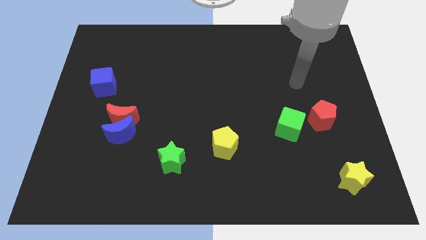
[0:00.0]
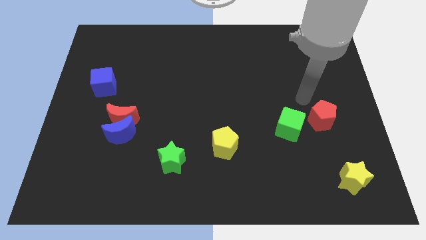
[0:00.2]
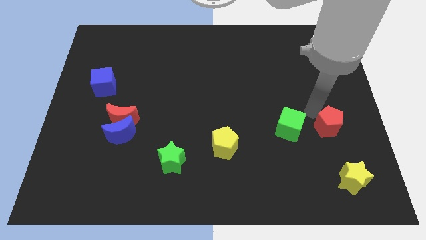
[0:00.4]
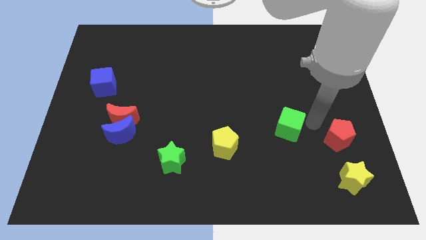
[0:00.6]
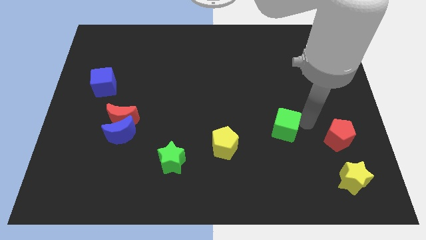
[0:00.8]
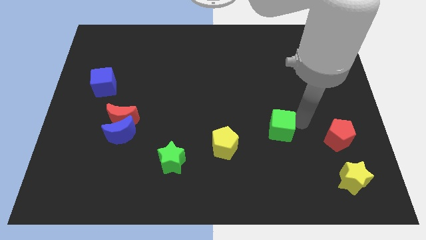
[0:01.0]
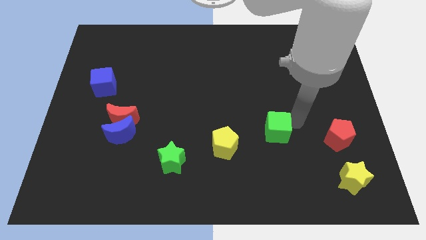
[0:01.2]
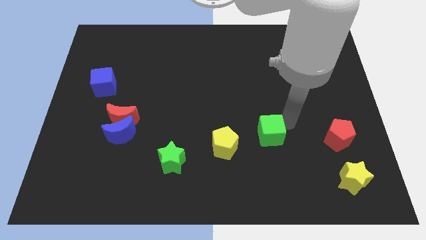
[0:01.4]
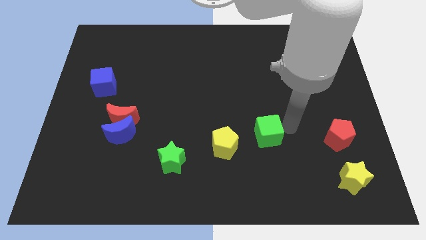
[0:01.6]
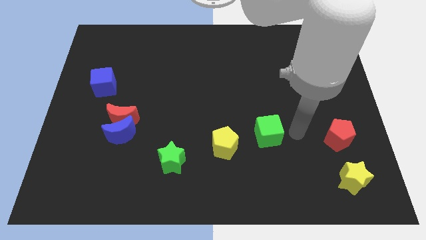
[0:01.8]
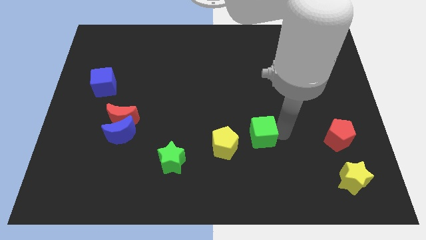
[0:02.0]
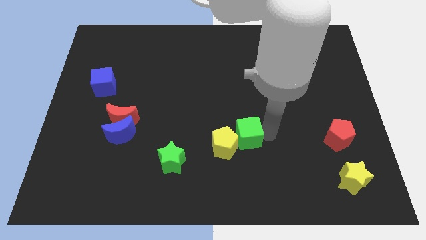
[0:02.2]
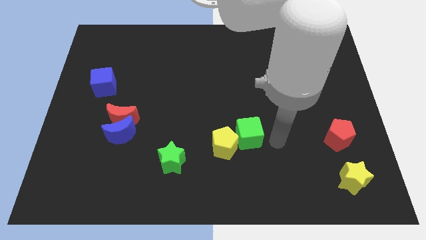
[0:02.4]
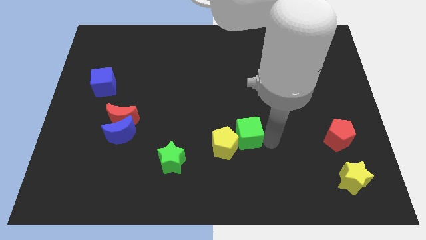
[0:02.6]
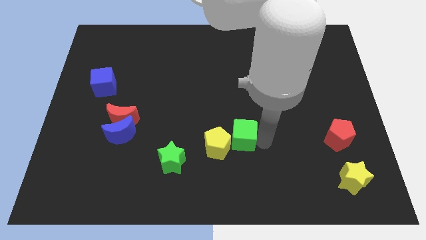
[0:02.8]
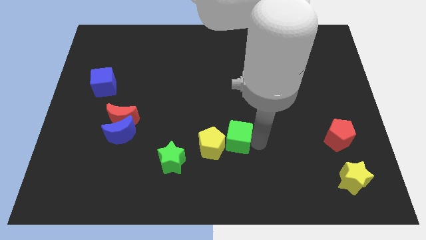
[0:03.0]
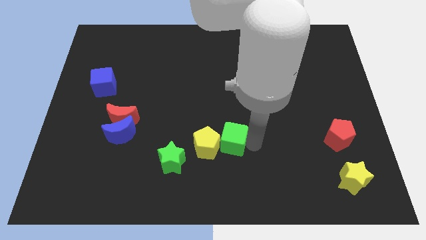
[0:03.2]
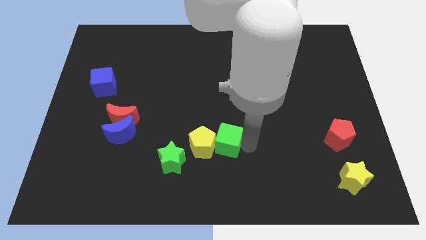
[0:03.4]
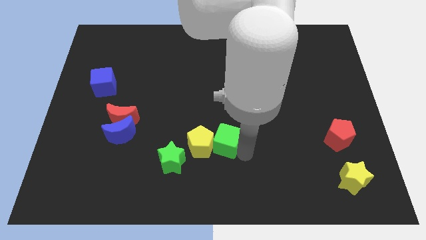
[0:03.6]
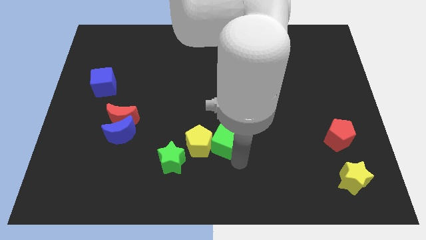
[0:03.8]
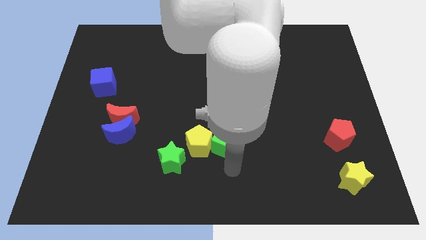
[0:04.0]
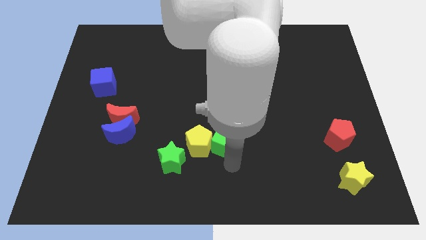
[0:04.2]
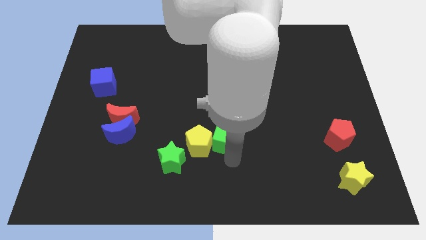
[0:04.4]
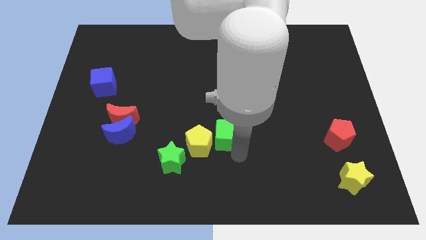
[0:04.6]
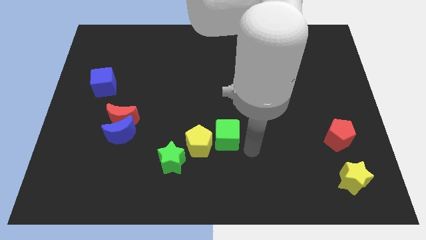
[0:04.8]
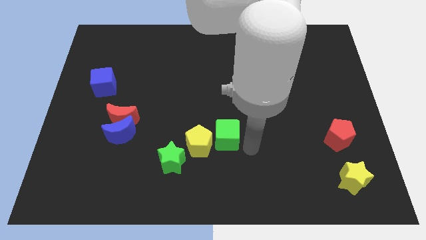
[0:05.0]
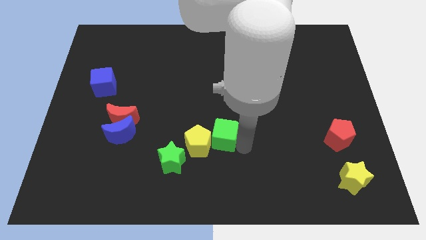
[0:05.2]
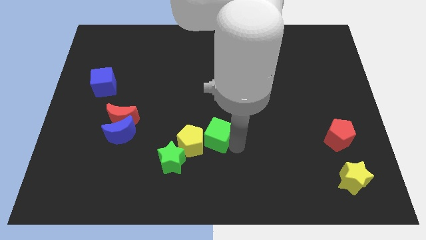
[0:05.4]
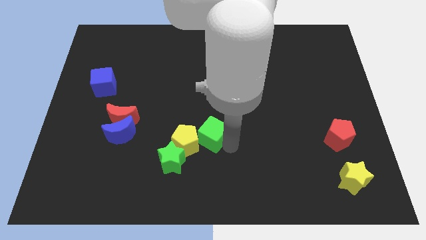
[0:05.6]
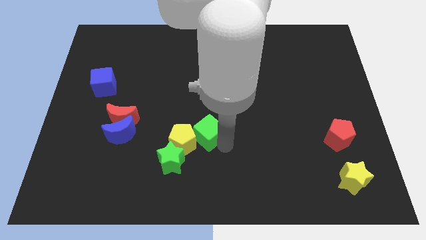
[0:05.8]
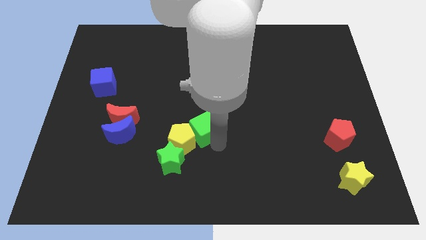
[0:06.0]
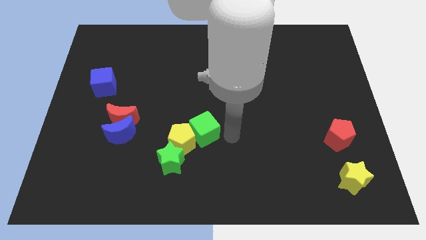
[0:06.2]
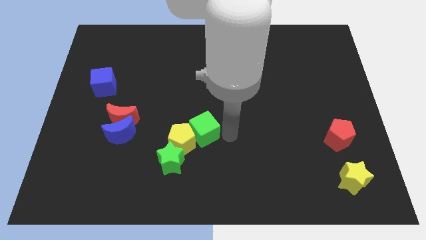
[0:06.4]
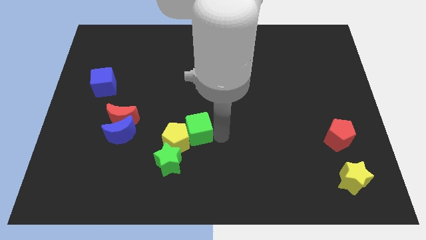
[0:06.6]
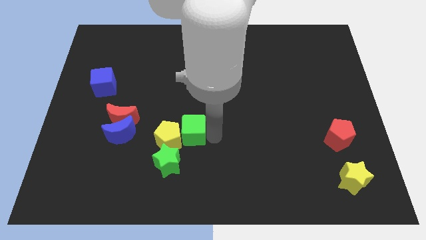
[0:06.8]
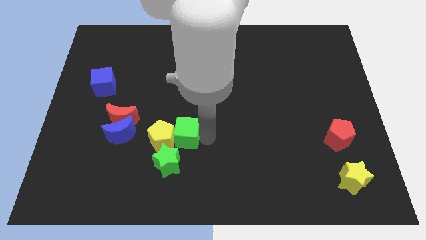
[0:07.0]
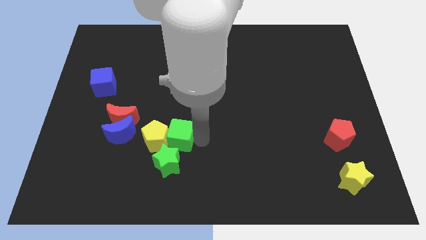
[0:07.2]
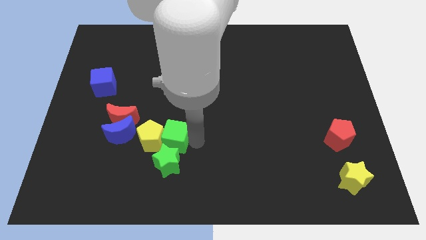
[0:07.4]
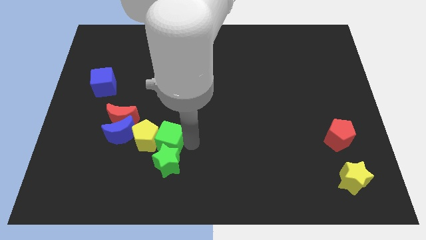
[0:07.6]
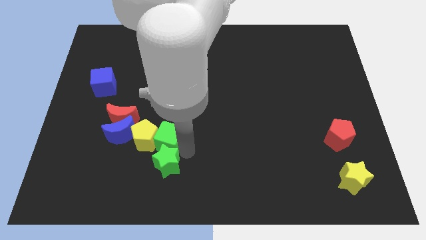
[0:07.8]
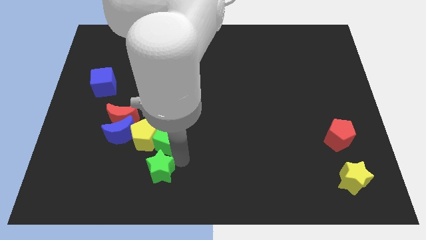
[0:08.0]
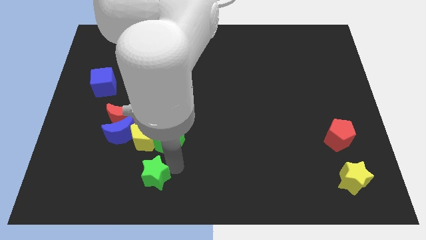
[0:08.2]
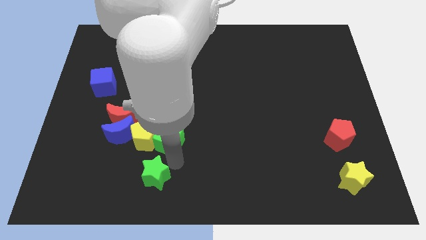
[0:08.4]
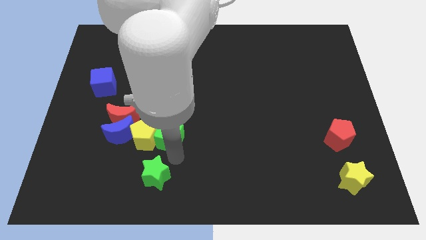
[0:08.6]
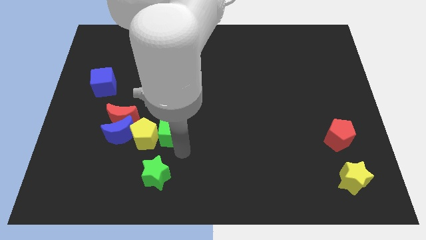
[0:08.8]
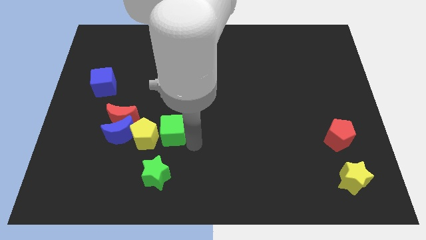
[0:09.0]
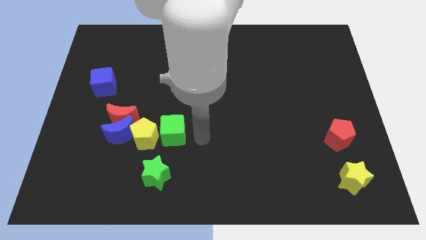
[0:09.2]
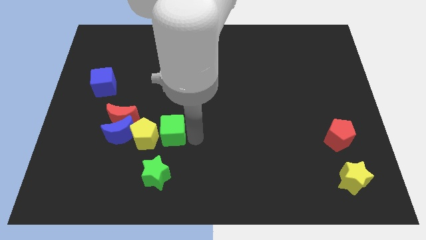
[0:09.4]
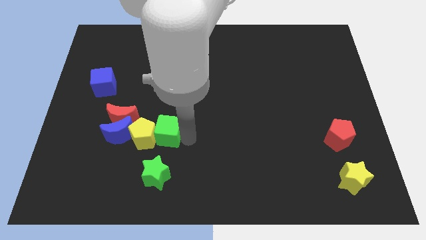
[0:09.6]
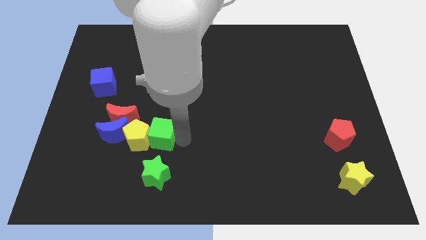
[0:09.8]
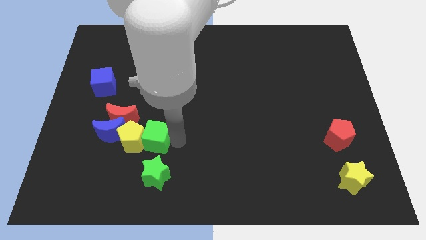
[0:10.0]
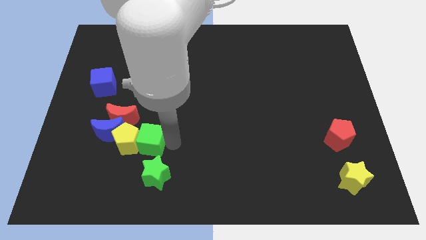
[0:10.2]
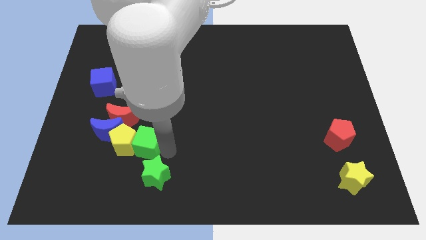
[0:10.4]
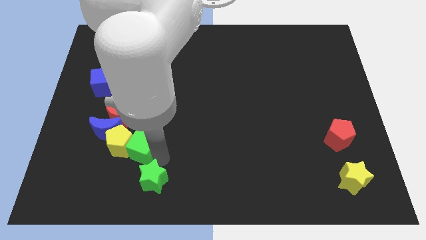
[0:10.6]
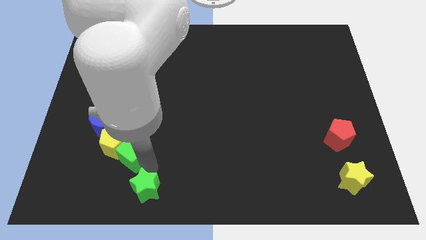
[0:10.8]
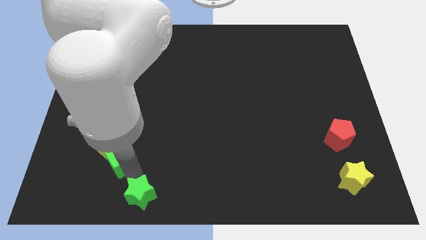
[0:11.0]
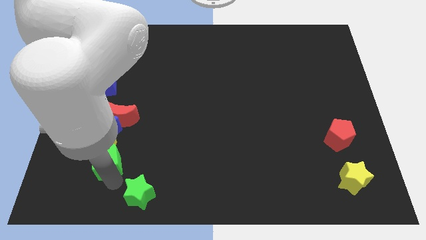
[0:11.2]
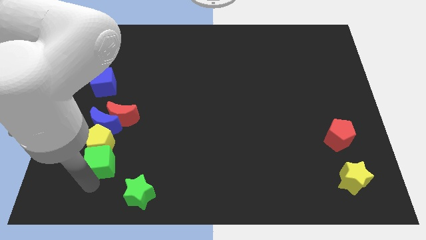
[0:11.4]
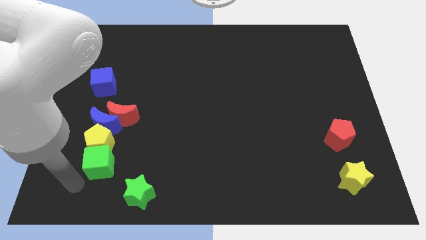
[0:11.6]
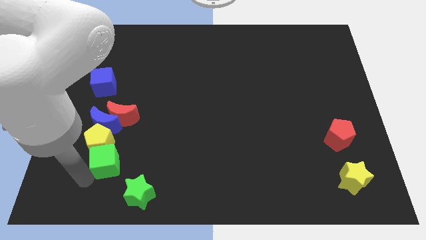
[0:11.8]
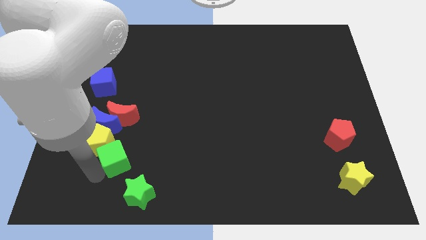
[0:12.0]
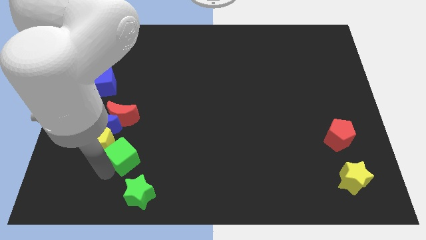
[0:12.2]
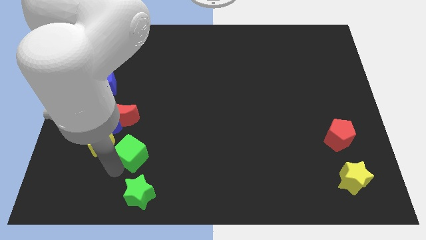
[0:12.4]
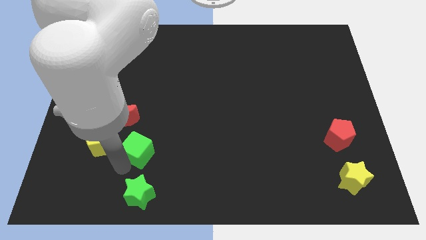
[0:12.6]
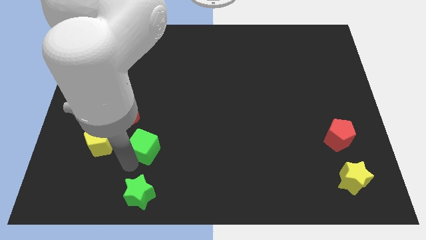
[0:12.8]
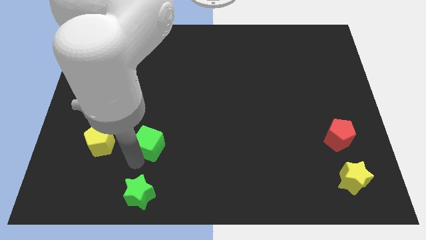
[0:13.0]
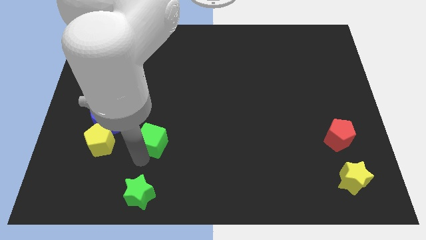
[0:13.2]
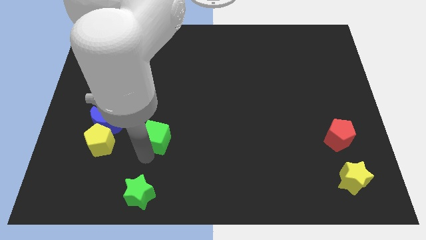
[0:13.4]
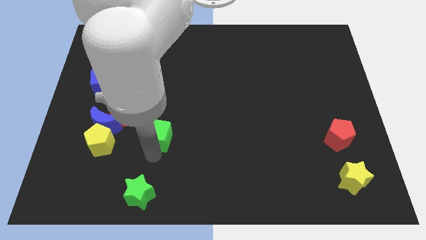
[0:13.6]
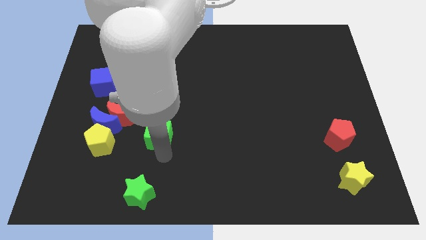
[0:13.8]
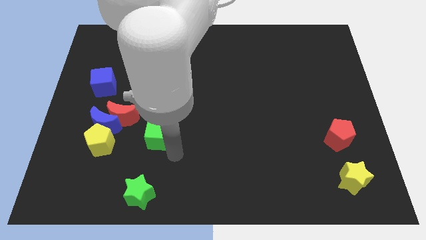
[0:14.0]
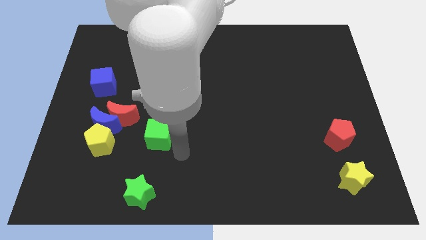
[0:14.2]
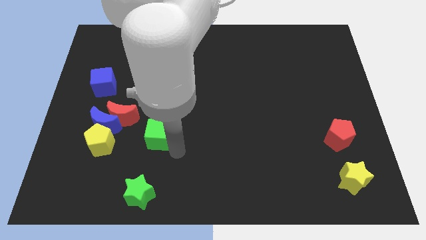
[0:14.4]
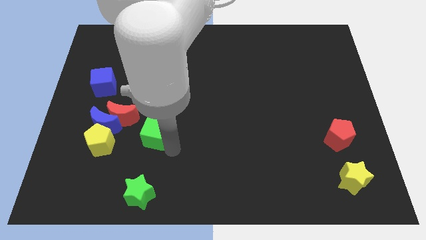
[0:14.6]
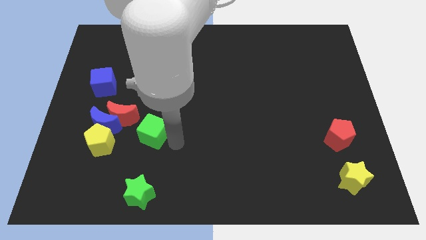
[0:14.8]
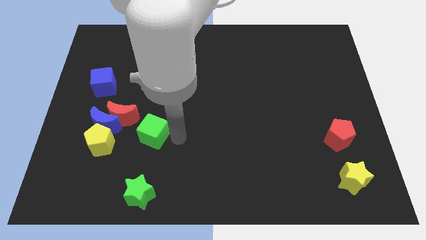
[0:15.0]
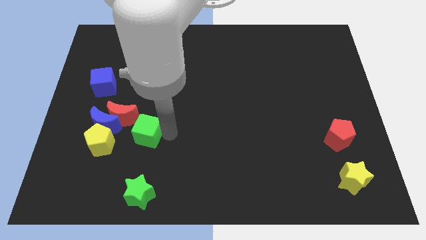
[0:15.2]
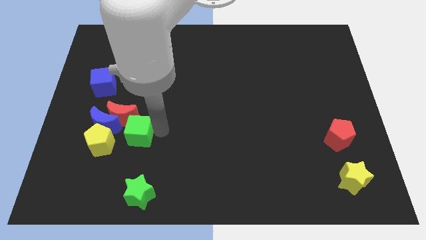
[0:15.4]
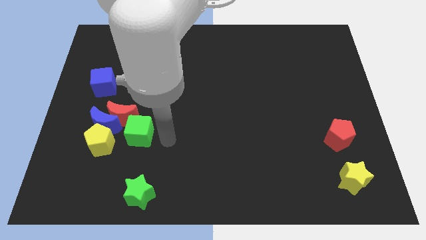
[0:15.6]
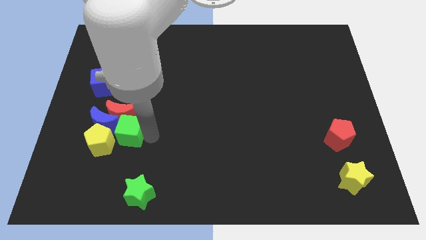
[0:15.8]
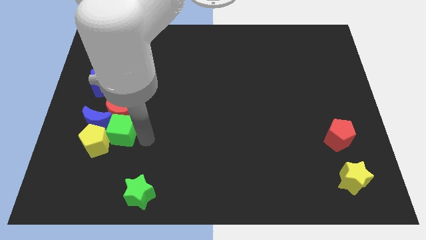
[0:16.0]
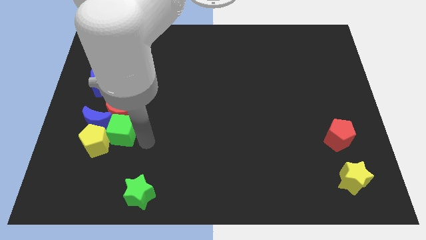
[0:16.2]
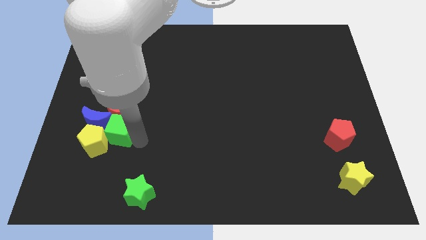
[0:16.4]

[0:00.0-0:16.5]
push the green cube next to the blue moon
